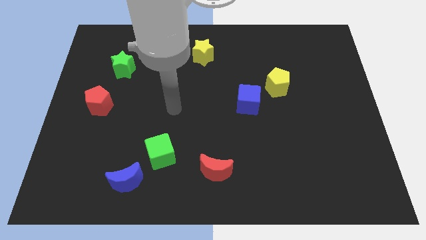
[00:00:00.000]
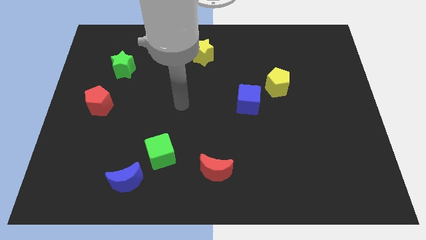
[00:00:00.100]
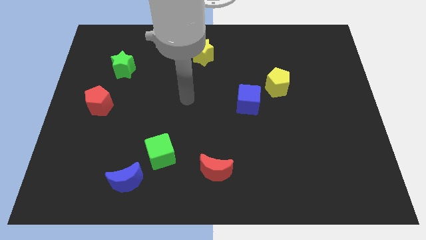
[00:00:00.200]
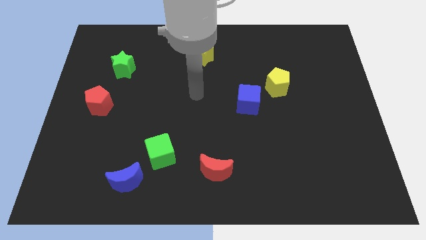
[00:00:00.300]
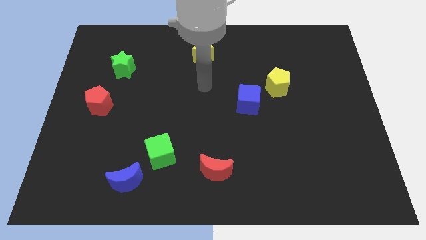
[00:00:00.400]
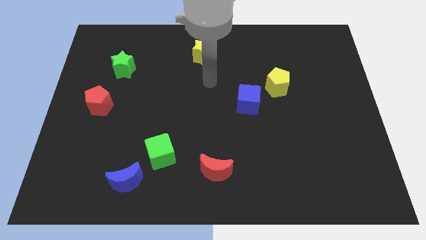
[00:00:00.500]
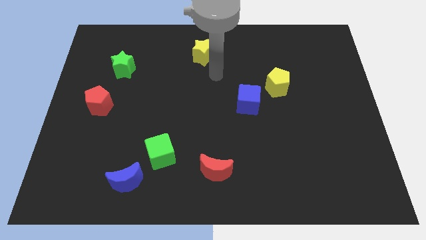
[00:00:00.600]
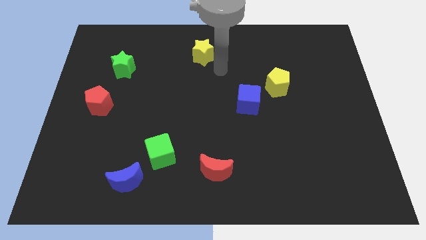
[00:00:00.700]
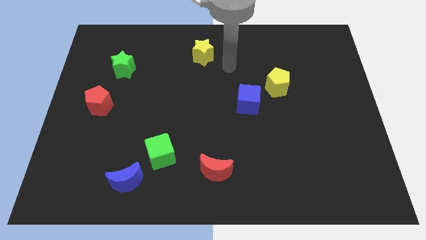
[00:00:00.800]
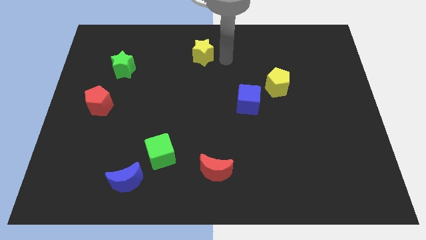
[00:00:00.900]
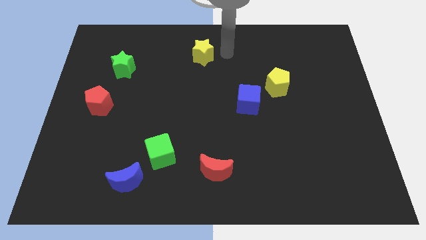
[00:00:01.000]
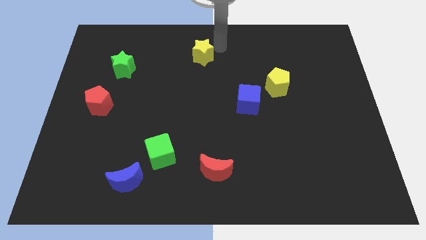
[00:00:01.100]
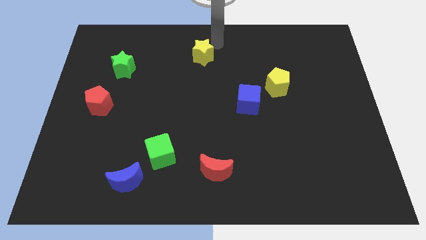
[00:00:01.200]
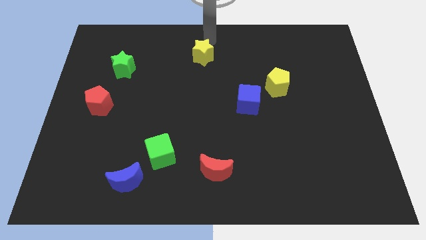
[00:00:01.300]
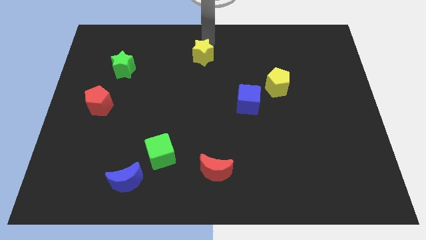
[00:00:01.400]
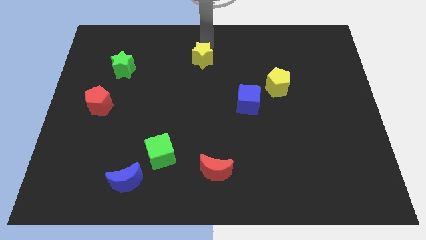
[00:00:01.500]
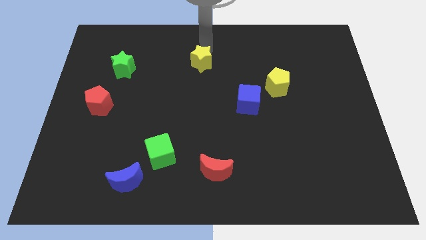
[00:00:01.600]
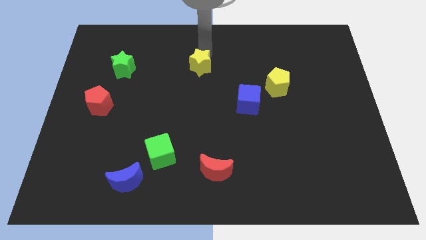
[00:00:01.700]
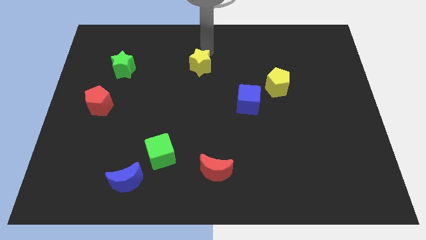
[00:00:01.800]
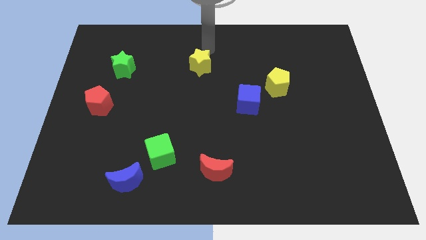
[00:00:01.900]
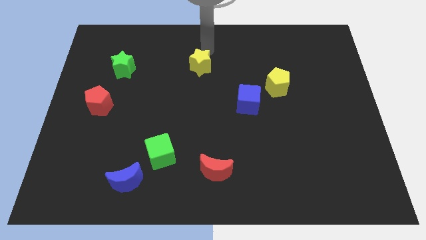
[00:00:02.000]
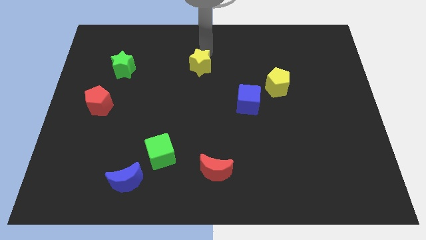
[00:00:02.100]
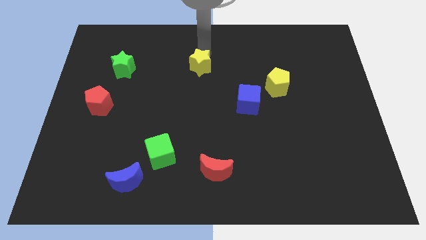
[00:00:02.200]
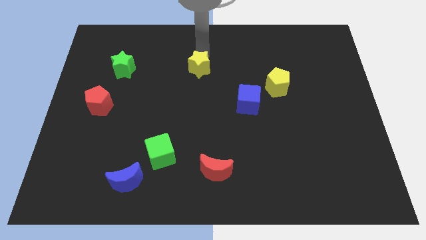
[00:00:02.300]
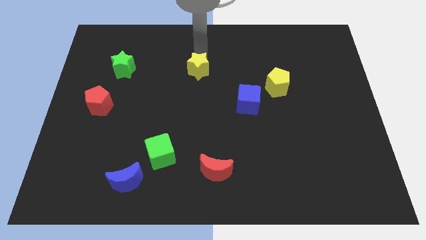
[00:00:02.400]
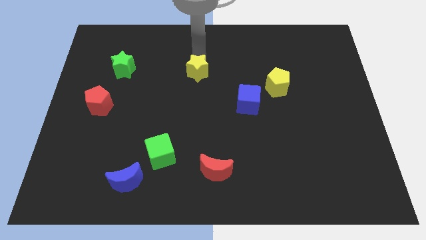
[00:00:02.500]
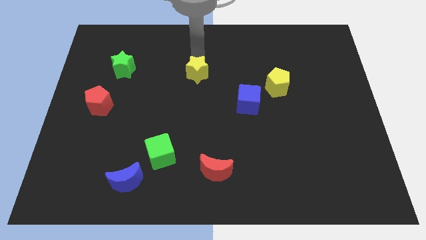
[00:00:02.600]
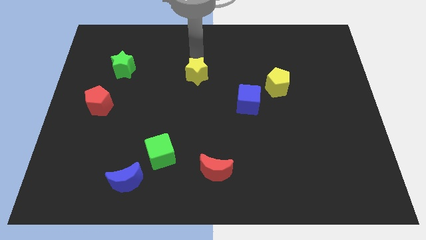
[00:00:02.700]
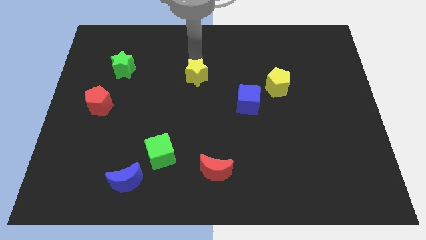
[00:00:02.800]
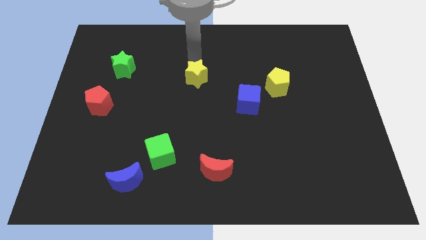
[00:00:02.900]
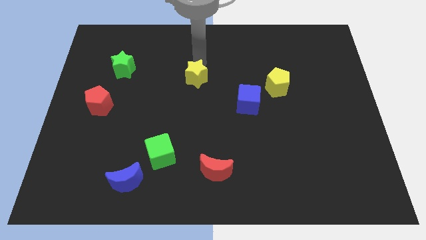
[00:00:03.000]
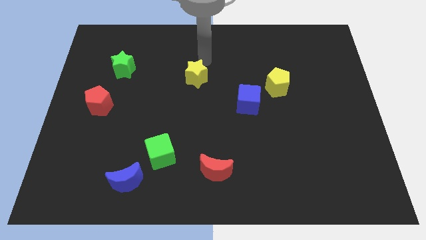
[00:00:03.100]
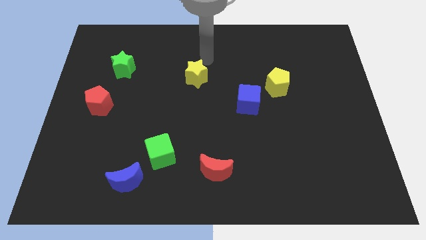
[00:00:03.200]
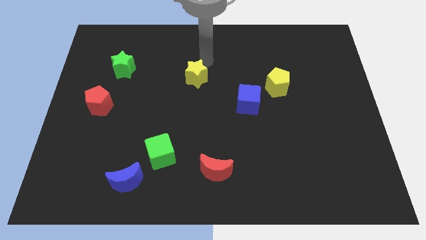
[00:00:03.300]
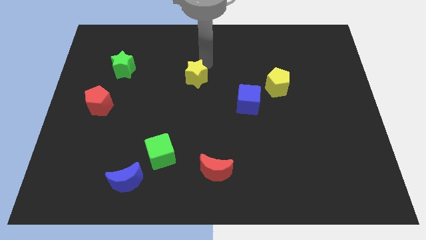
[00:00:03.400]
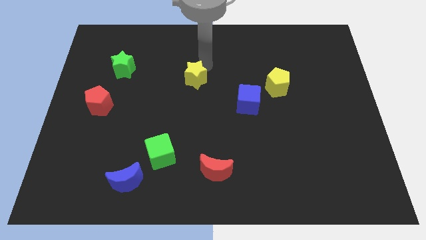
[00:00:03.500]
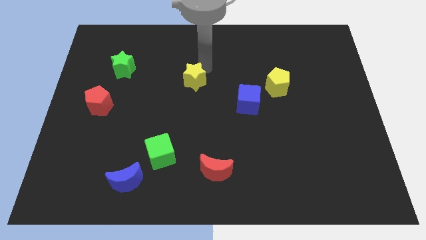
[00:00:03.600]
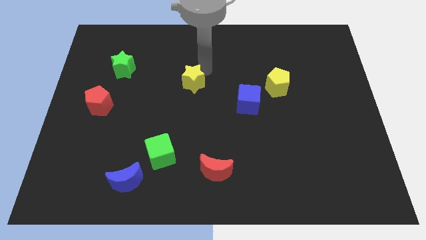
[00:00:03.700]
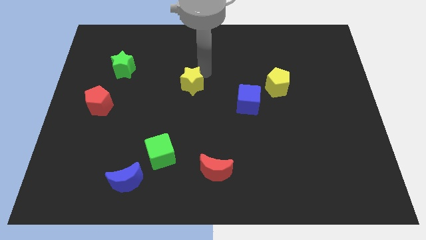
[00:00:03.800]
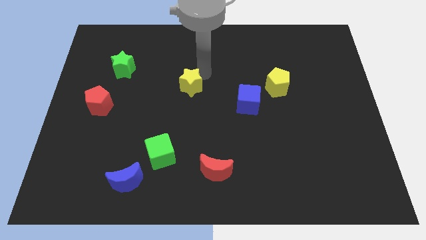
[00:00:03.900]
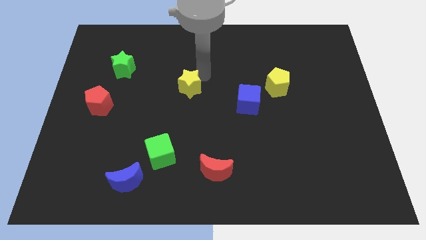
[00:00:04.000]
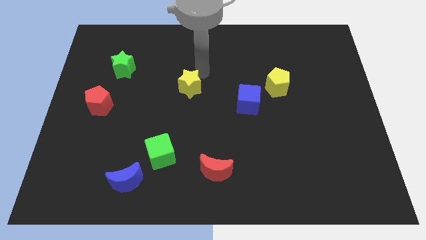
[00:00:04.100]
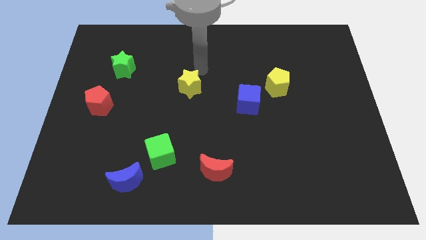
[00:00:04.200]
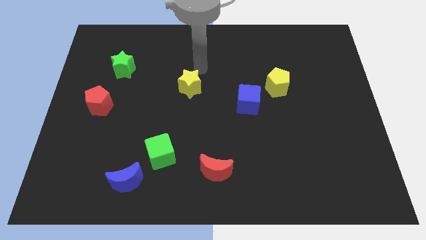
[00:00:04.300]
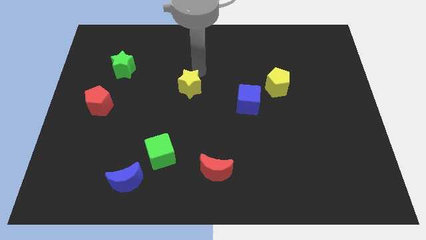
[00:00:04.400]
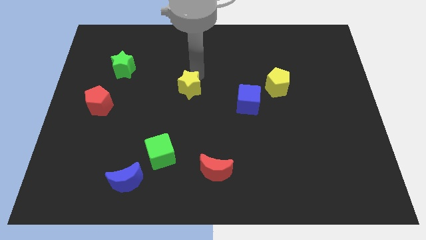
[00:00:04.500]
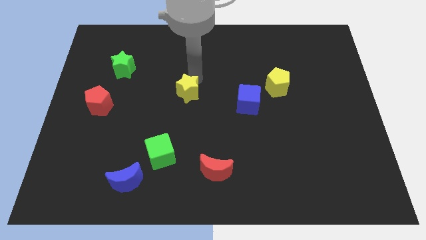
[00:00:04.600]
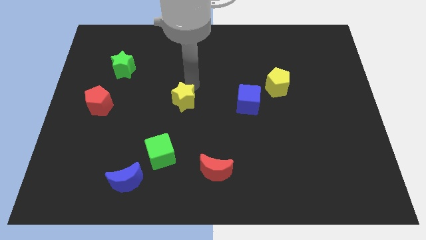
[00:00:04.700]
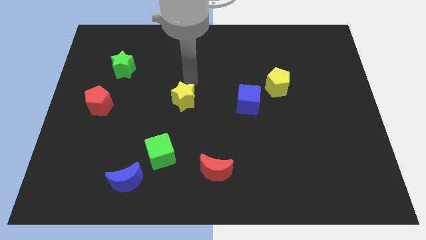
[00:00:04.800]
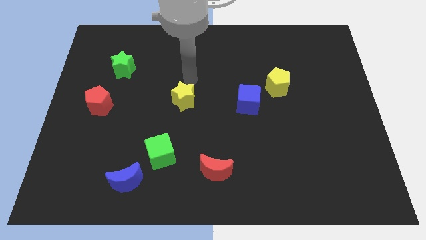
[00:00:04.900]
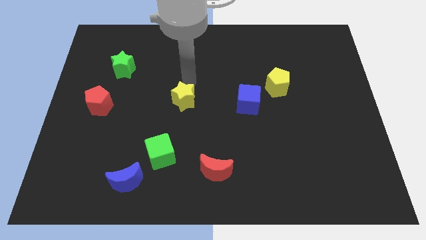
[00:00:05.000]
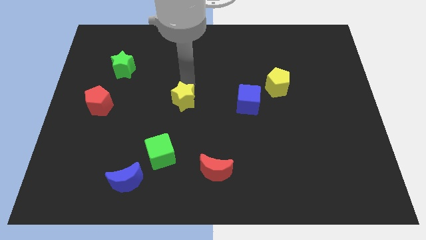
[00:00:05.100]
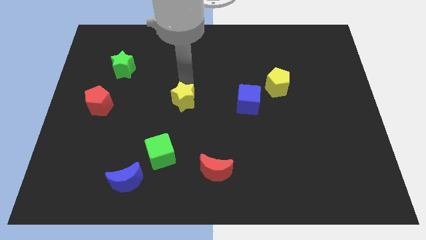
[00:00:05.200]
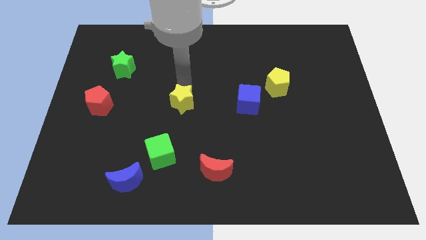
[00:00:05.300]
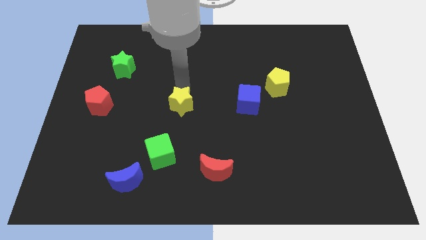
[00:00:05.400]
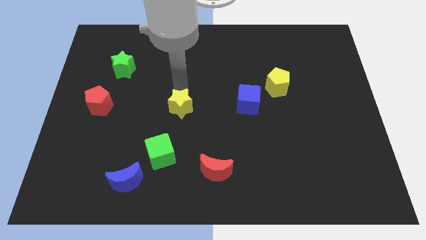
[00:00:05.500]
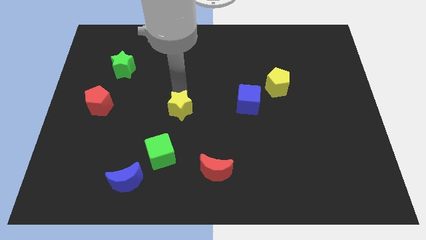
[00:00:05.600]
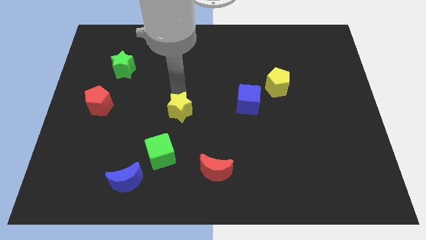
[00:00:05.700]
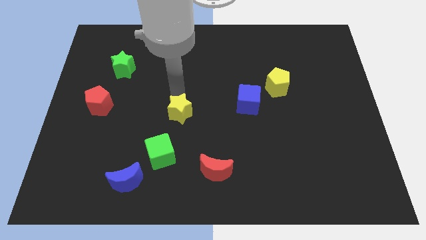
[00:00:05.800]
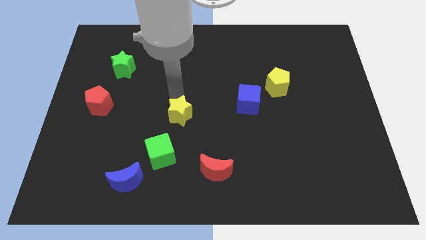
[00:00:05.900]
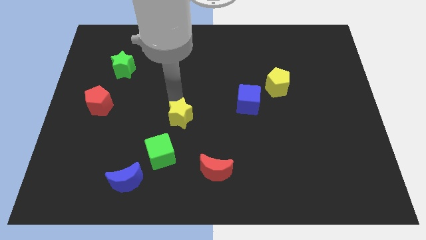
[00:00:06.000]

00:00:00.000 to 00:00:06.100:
slide the yellow star diagonally up and to the right of the green cube

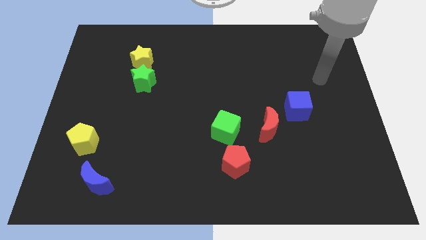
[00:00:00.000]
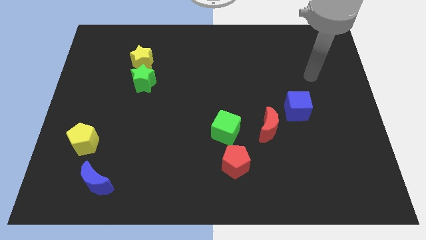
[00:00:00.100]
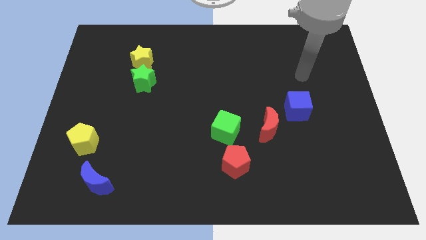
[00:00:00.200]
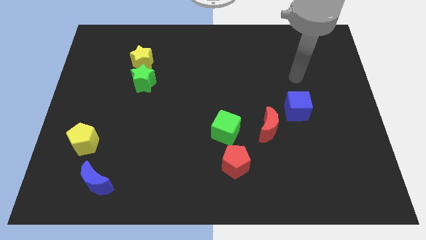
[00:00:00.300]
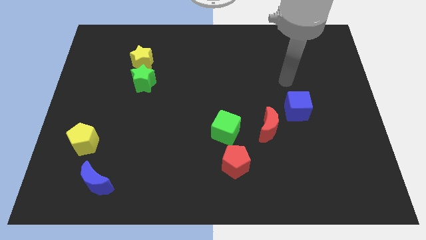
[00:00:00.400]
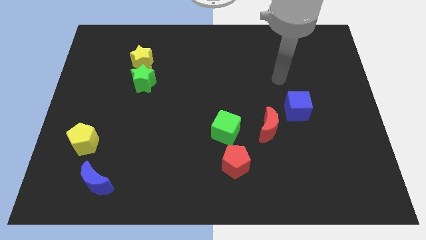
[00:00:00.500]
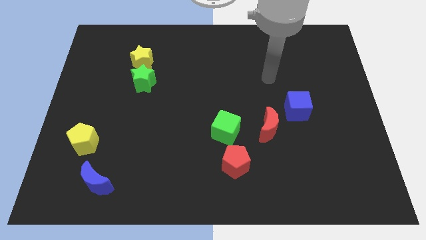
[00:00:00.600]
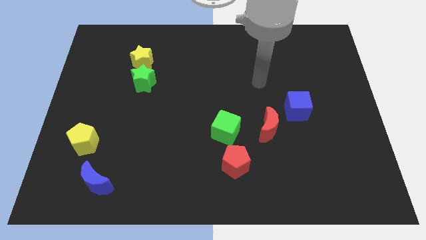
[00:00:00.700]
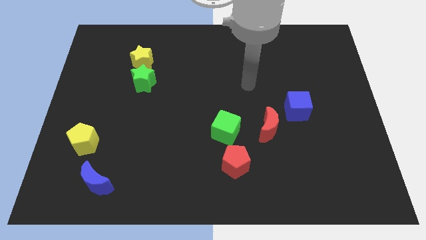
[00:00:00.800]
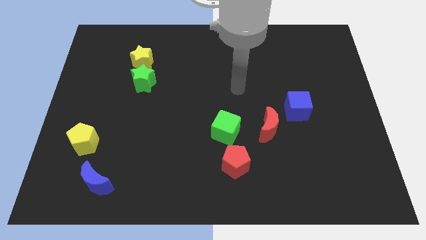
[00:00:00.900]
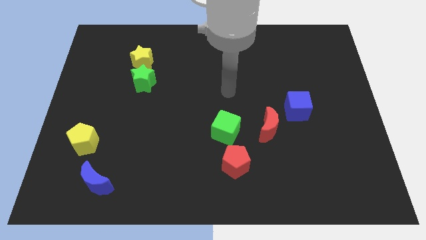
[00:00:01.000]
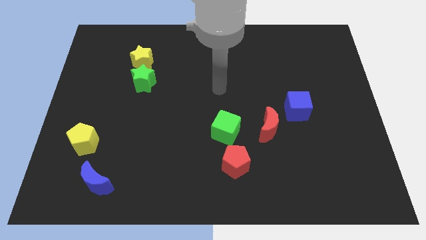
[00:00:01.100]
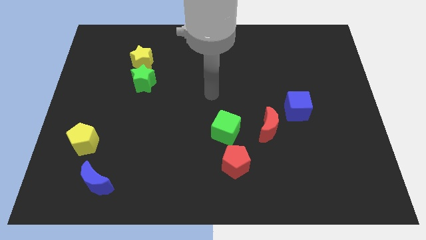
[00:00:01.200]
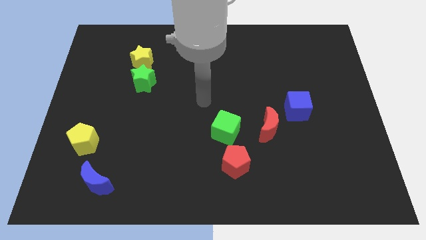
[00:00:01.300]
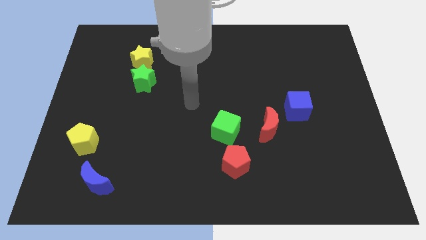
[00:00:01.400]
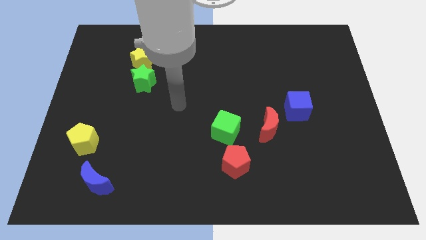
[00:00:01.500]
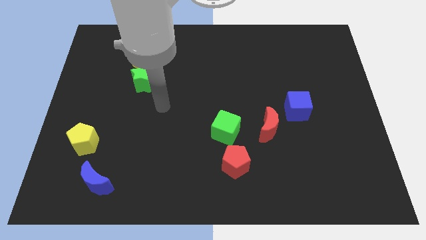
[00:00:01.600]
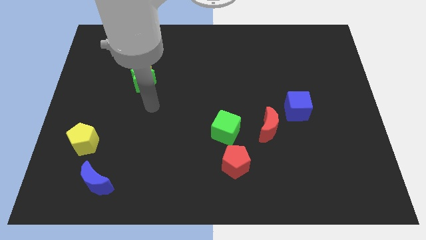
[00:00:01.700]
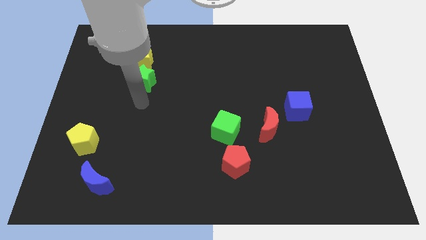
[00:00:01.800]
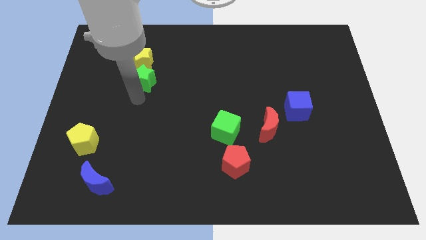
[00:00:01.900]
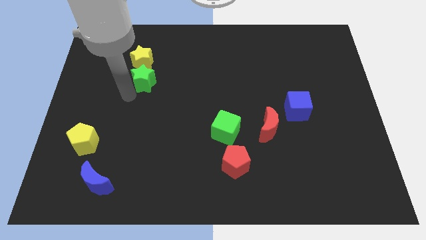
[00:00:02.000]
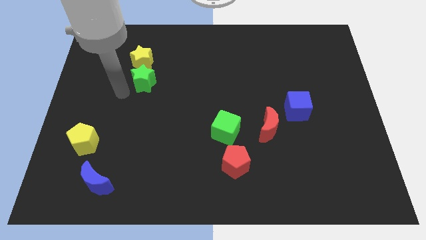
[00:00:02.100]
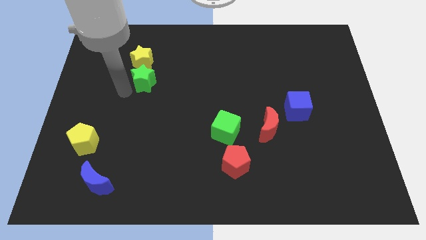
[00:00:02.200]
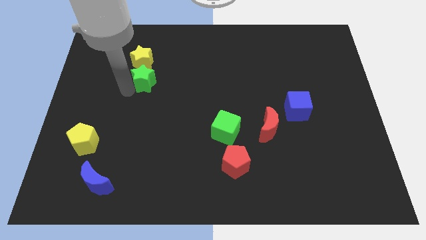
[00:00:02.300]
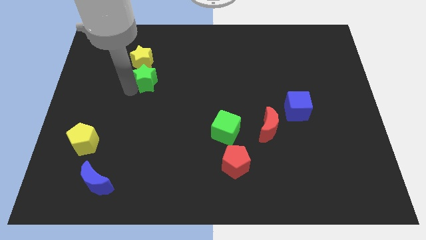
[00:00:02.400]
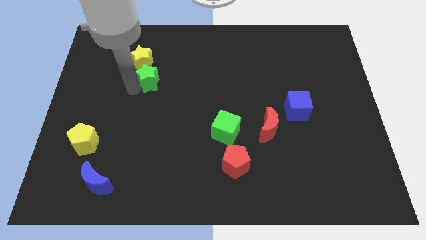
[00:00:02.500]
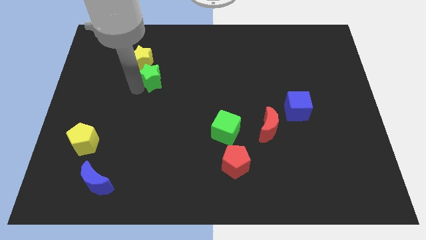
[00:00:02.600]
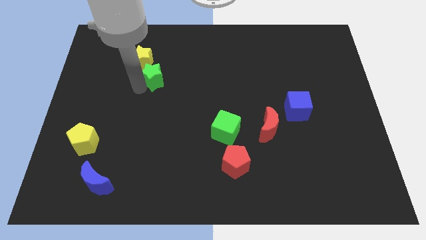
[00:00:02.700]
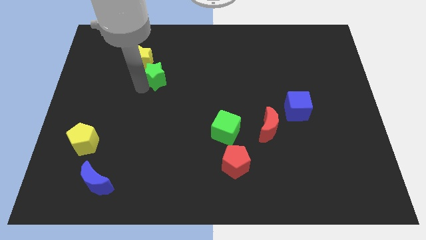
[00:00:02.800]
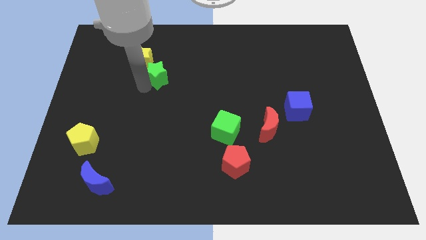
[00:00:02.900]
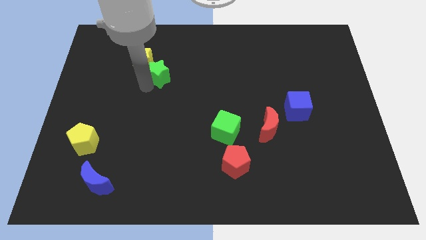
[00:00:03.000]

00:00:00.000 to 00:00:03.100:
push the green star to the right side of the yellow star
